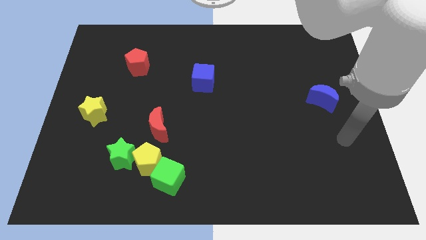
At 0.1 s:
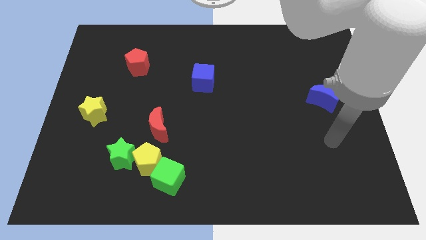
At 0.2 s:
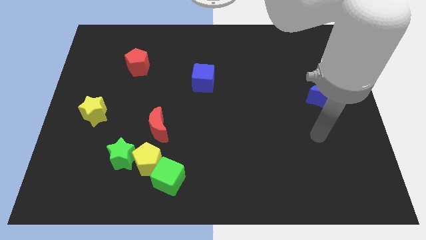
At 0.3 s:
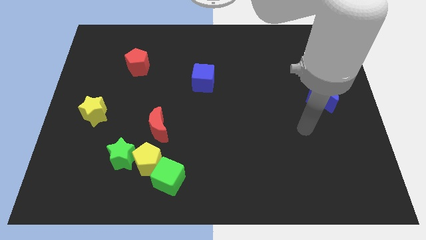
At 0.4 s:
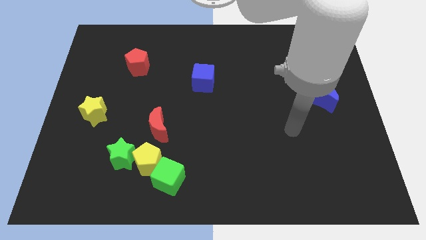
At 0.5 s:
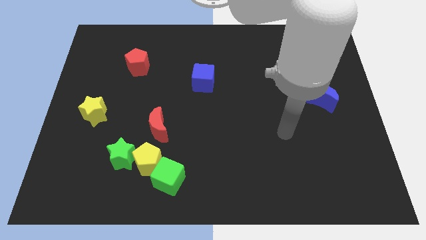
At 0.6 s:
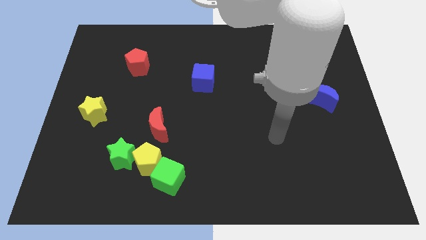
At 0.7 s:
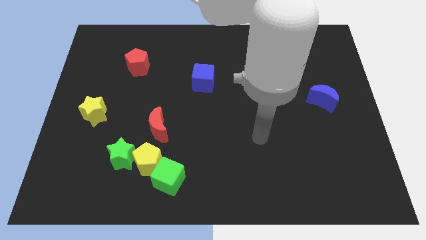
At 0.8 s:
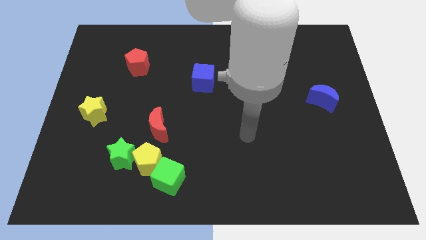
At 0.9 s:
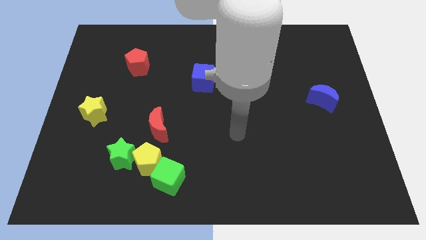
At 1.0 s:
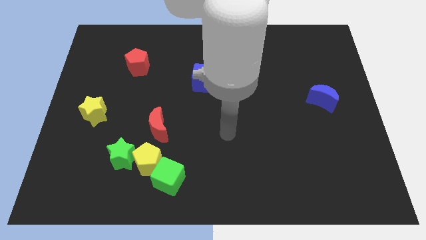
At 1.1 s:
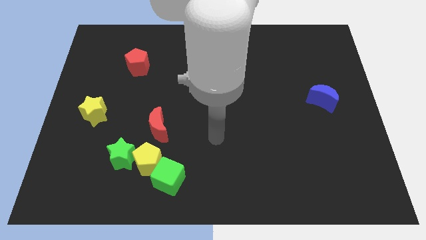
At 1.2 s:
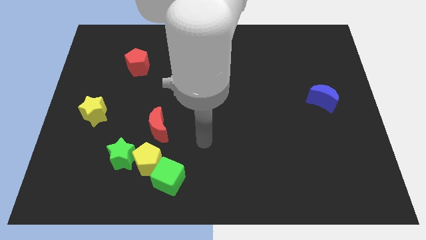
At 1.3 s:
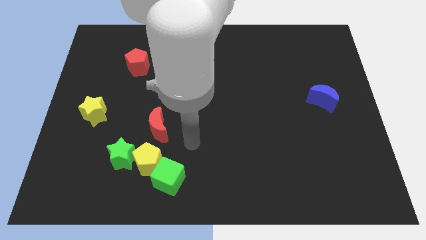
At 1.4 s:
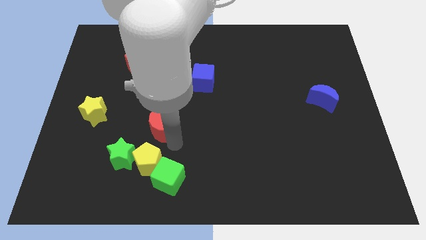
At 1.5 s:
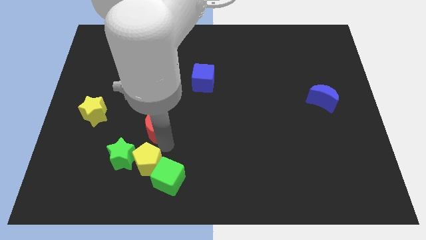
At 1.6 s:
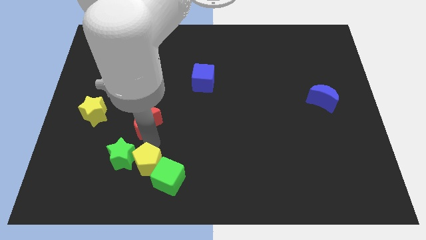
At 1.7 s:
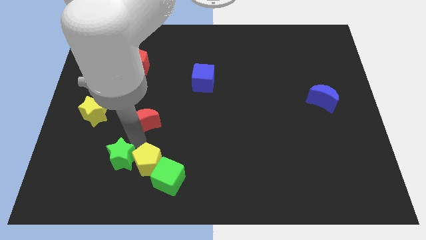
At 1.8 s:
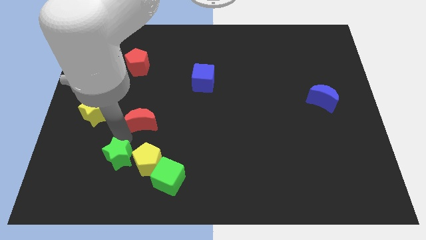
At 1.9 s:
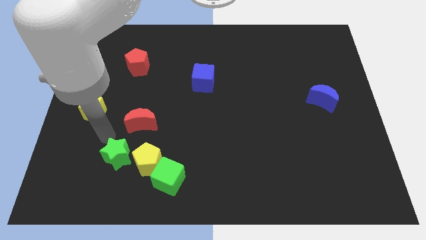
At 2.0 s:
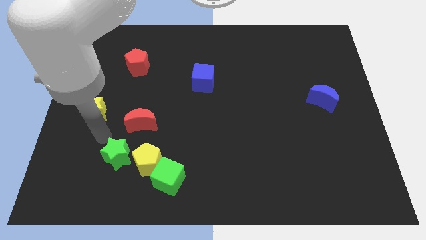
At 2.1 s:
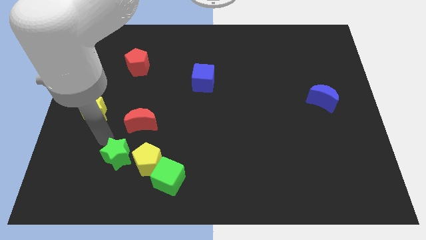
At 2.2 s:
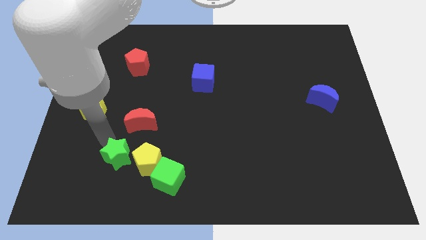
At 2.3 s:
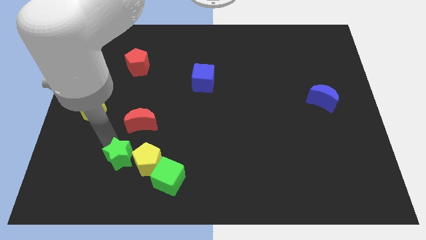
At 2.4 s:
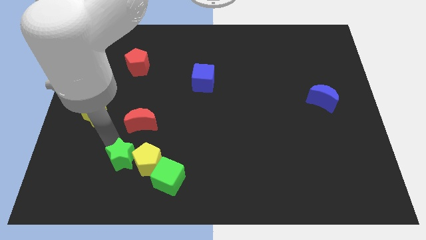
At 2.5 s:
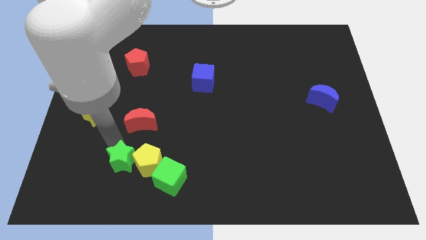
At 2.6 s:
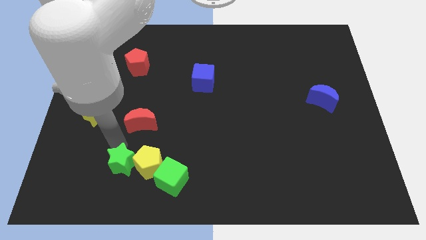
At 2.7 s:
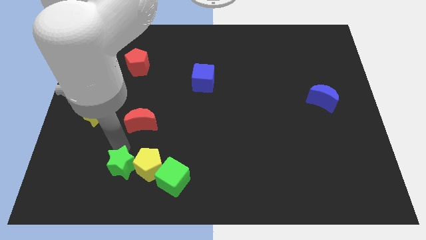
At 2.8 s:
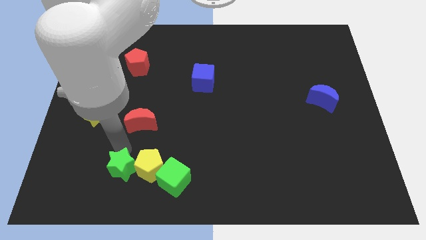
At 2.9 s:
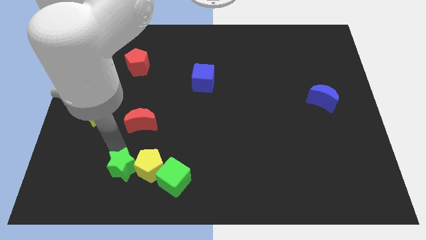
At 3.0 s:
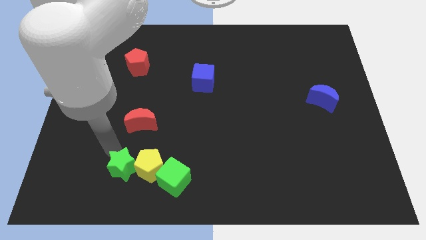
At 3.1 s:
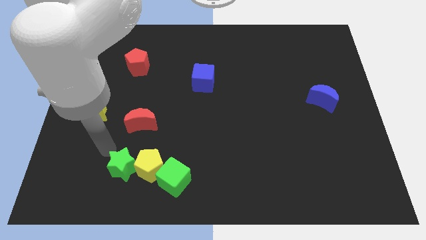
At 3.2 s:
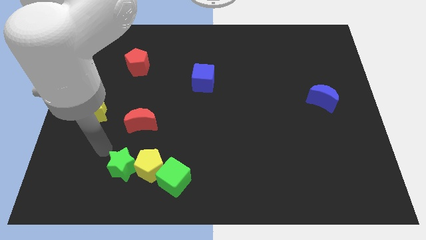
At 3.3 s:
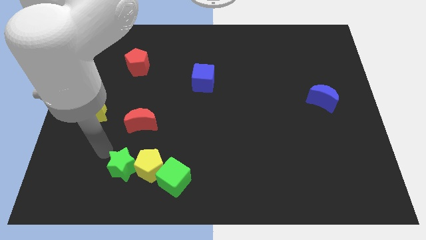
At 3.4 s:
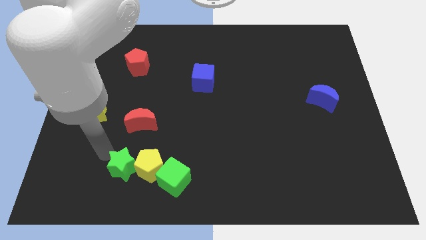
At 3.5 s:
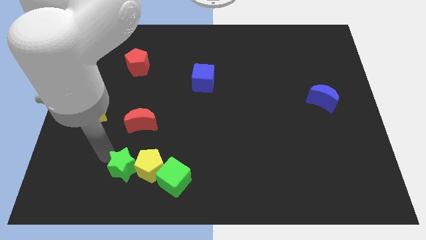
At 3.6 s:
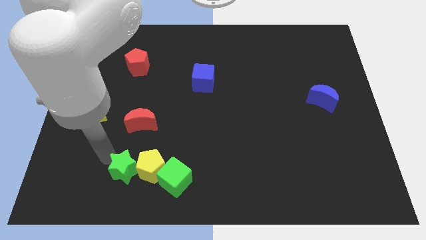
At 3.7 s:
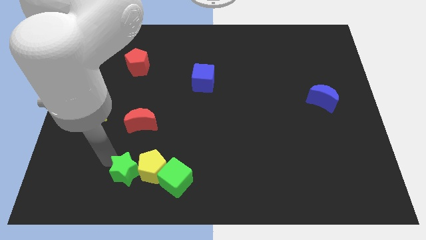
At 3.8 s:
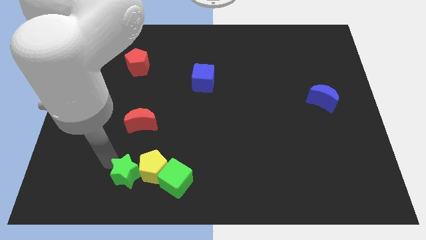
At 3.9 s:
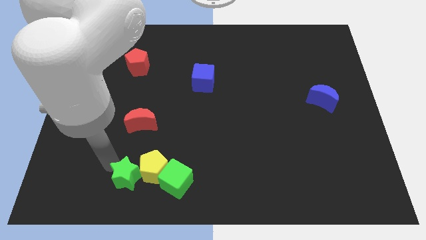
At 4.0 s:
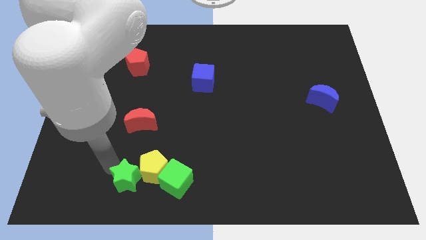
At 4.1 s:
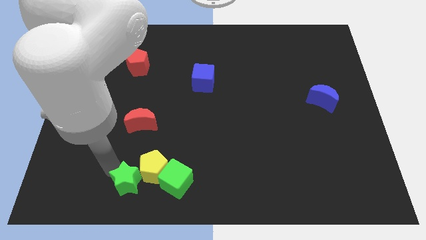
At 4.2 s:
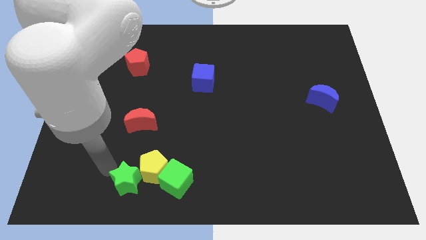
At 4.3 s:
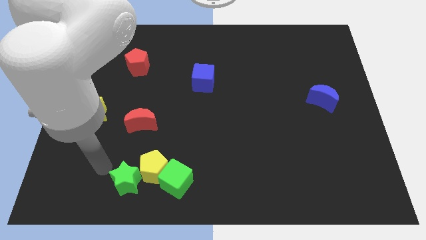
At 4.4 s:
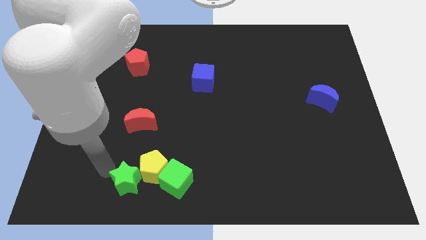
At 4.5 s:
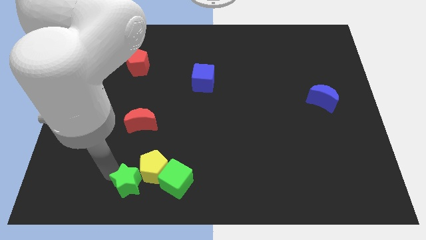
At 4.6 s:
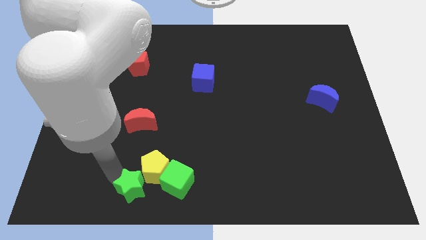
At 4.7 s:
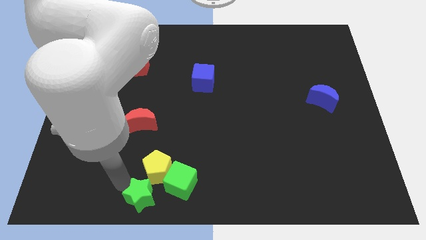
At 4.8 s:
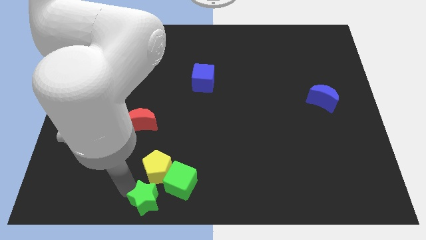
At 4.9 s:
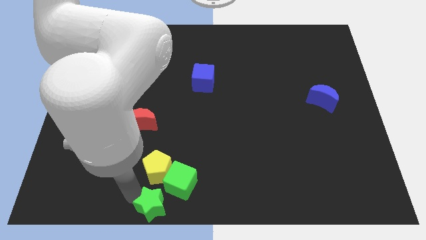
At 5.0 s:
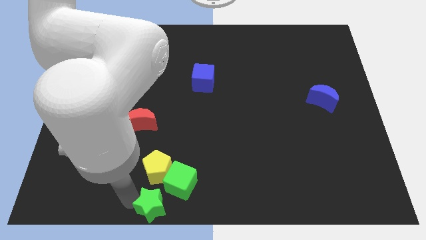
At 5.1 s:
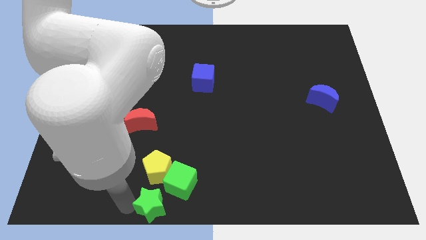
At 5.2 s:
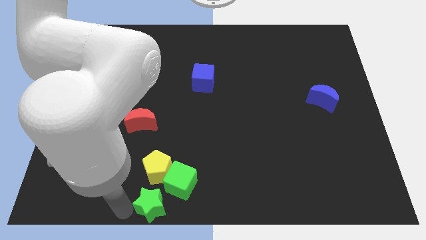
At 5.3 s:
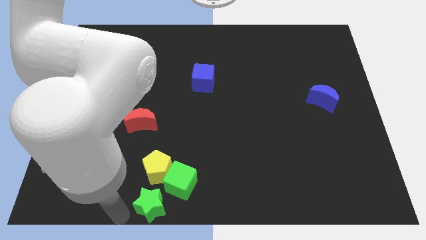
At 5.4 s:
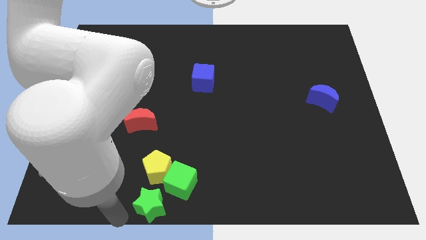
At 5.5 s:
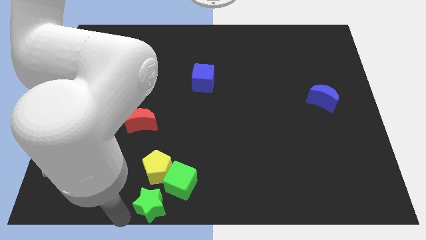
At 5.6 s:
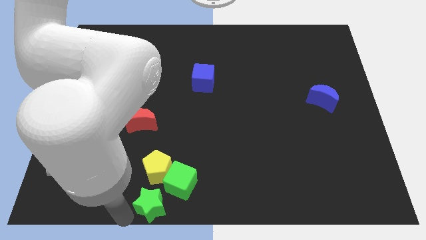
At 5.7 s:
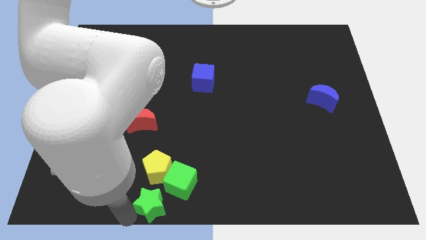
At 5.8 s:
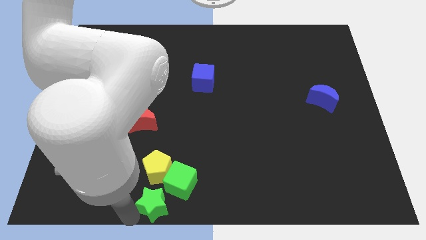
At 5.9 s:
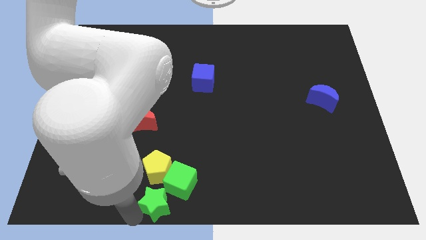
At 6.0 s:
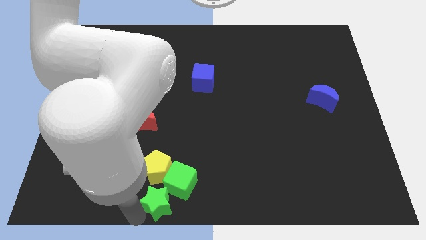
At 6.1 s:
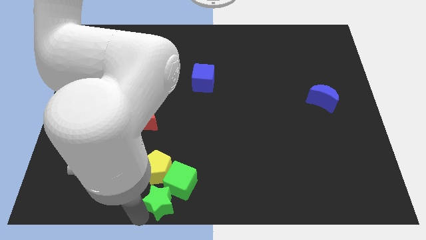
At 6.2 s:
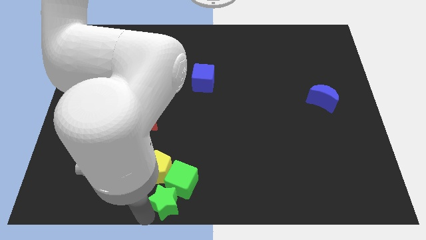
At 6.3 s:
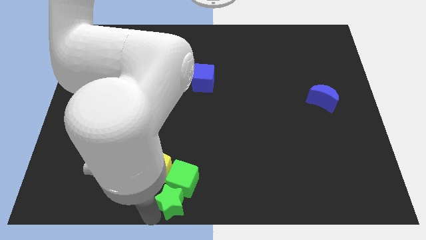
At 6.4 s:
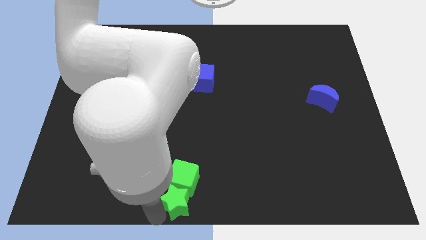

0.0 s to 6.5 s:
push the green star to the right a little

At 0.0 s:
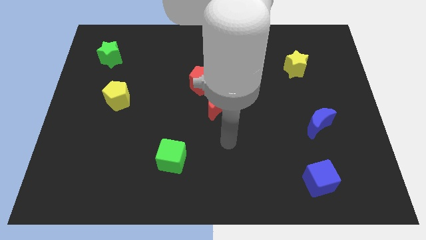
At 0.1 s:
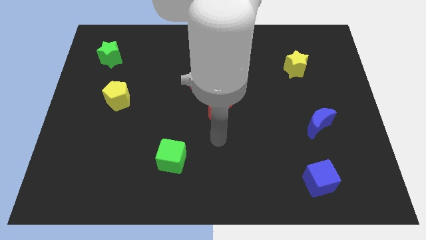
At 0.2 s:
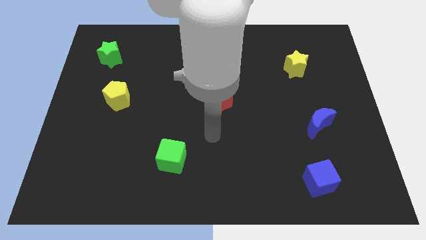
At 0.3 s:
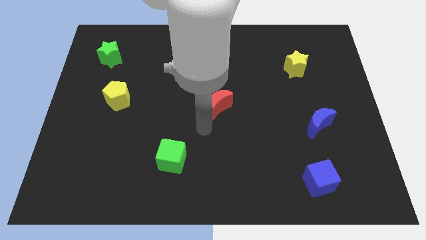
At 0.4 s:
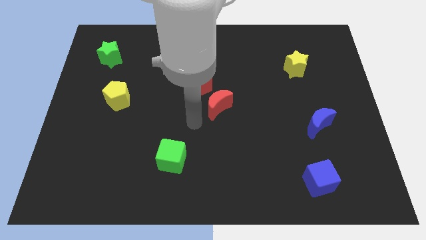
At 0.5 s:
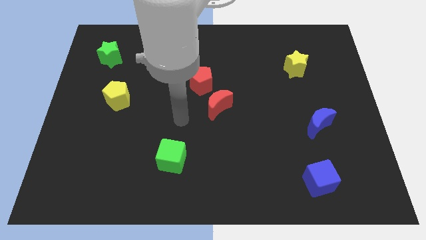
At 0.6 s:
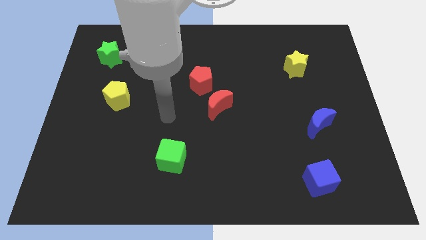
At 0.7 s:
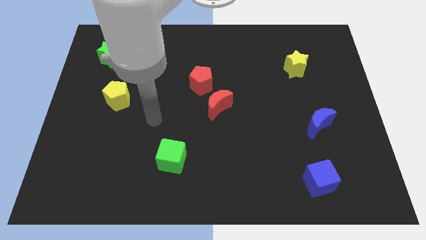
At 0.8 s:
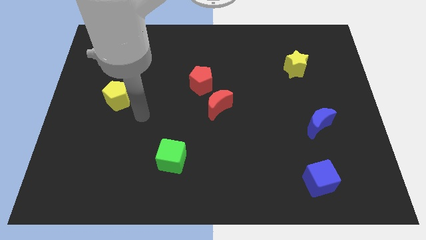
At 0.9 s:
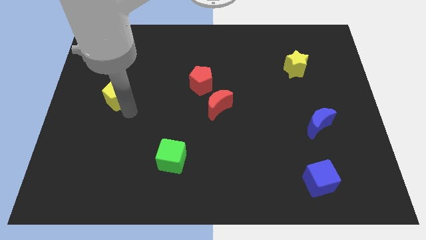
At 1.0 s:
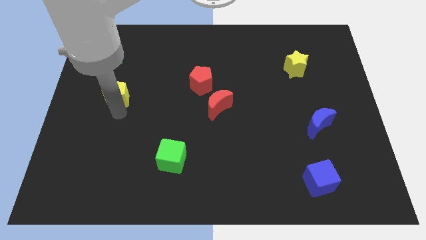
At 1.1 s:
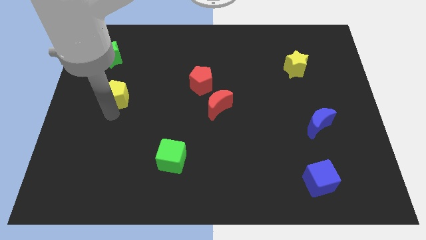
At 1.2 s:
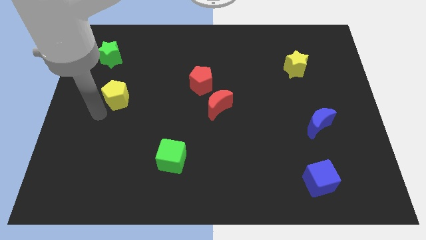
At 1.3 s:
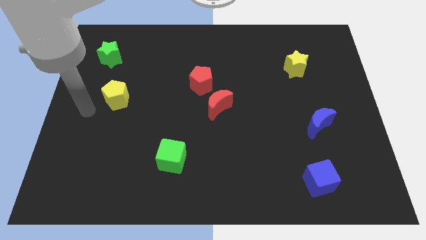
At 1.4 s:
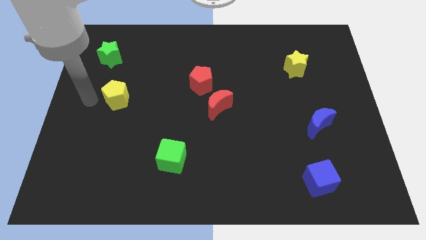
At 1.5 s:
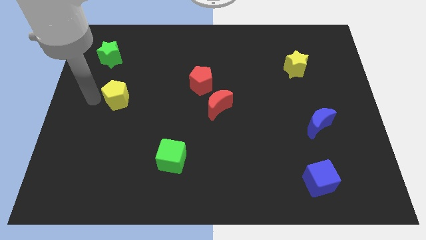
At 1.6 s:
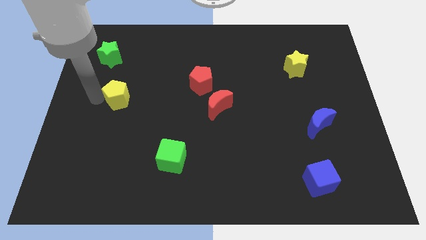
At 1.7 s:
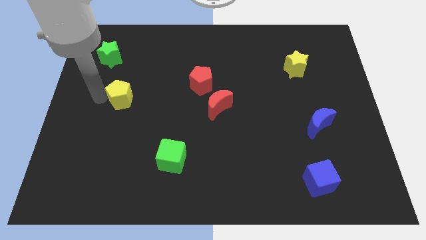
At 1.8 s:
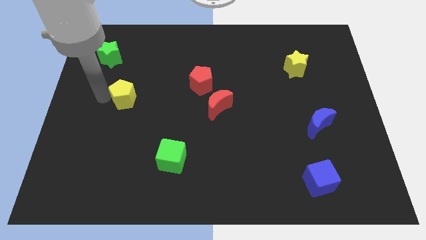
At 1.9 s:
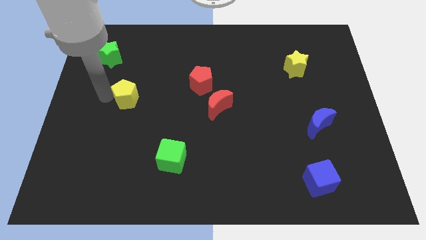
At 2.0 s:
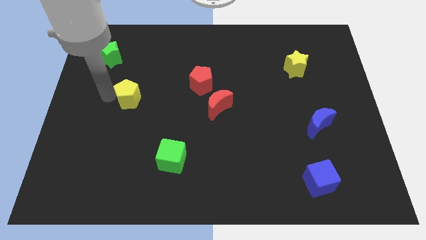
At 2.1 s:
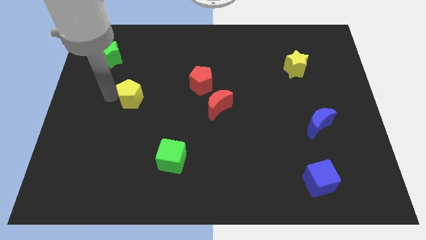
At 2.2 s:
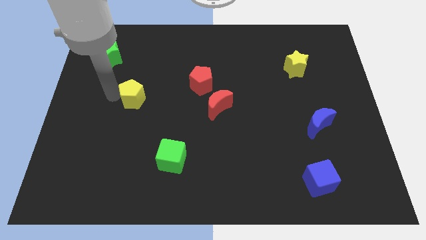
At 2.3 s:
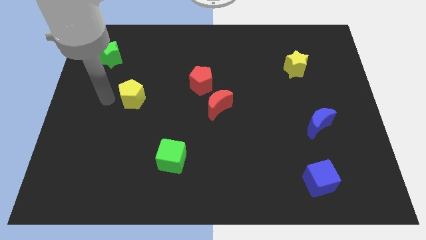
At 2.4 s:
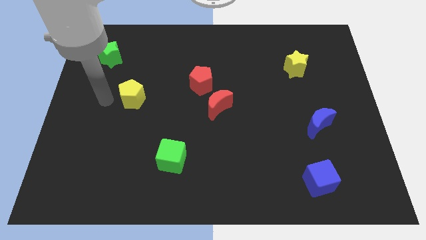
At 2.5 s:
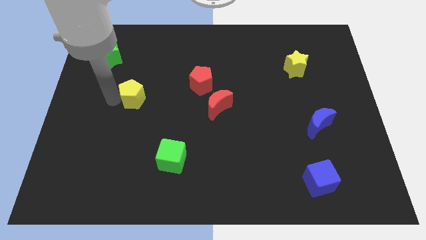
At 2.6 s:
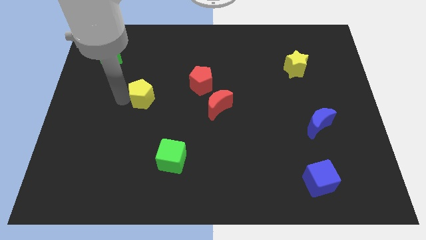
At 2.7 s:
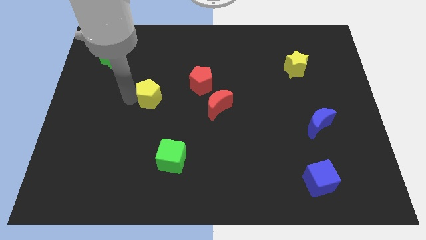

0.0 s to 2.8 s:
slightly push the yellow pentagon to the right
